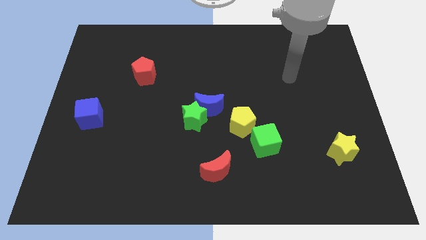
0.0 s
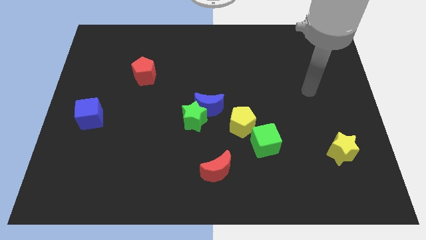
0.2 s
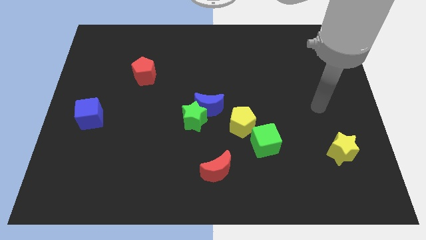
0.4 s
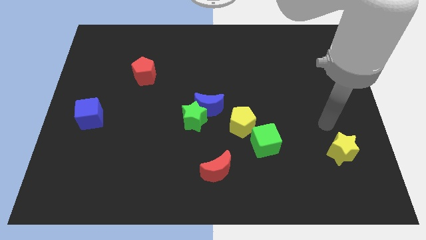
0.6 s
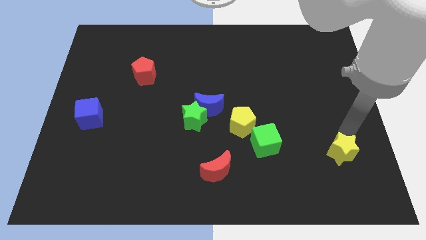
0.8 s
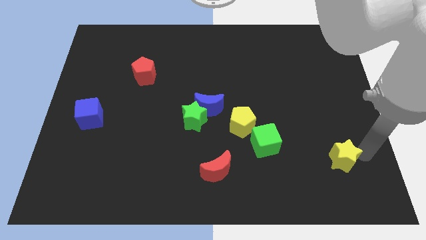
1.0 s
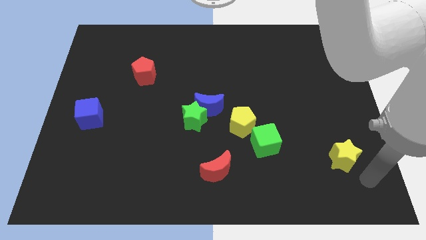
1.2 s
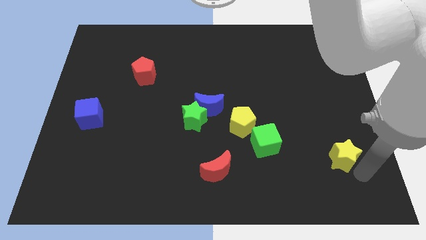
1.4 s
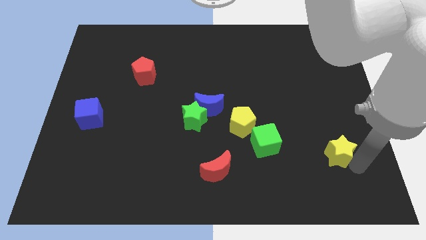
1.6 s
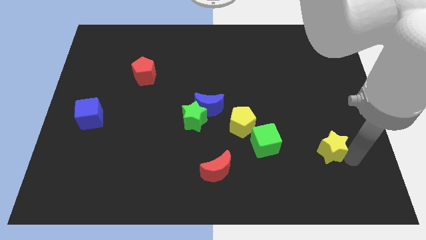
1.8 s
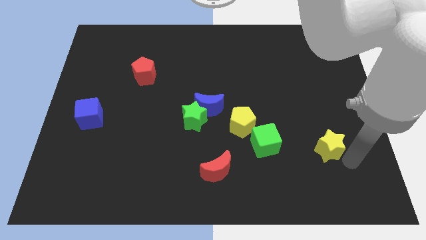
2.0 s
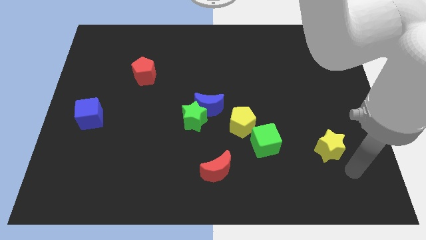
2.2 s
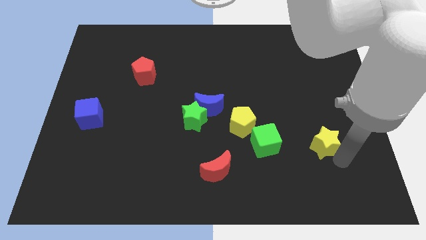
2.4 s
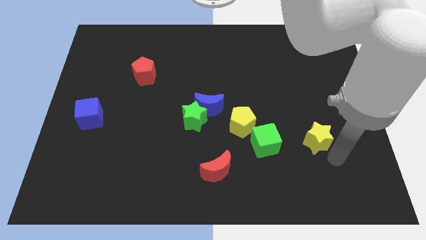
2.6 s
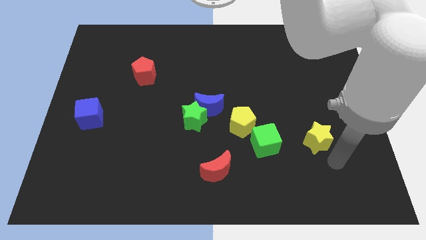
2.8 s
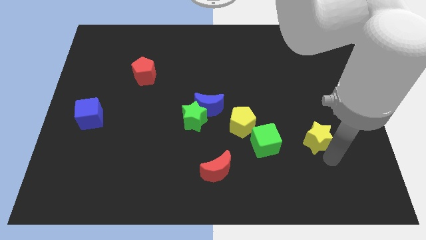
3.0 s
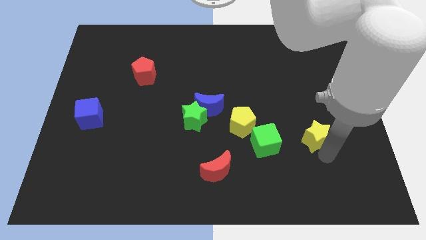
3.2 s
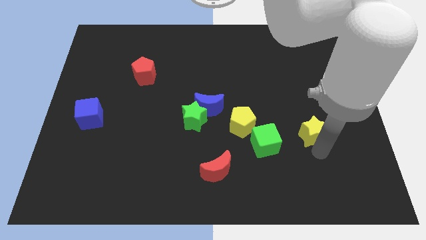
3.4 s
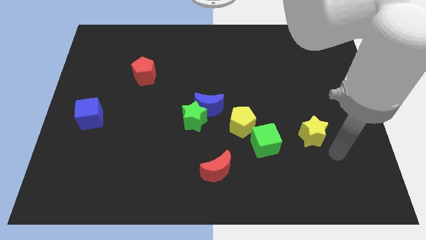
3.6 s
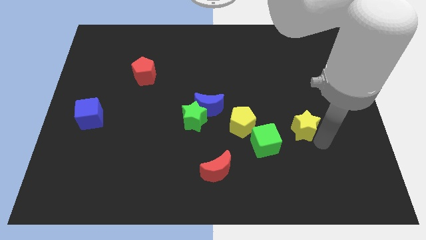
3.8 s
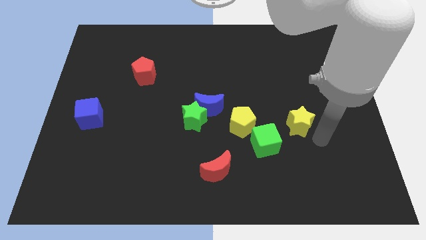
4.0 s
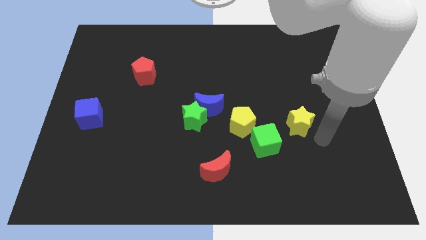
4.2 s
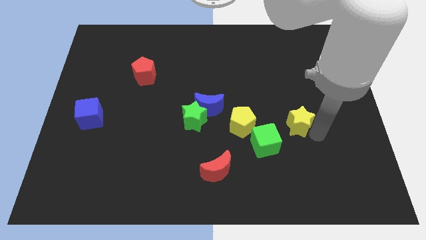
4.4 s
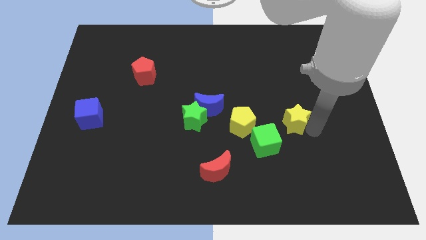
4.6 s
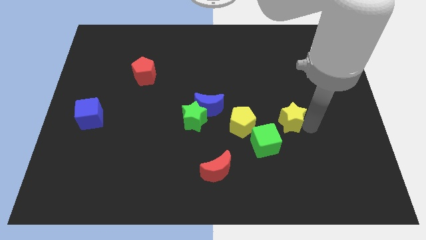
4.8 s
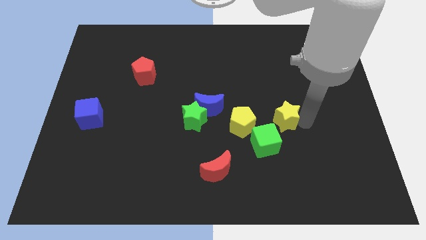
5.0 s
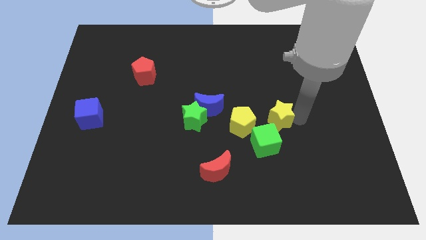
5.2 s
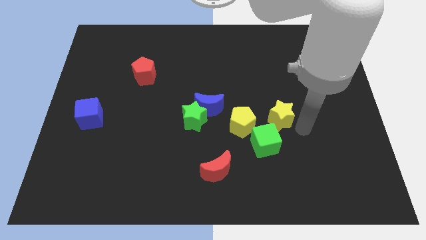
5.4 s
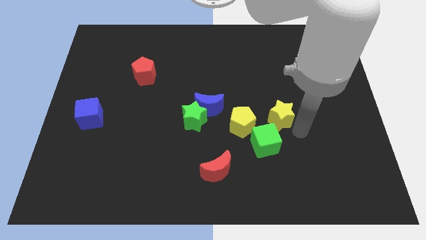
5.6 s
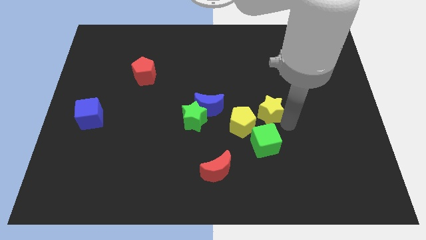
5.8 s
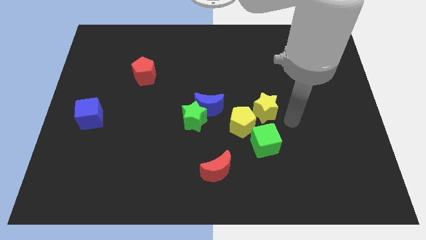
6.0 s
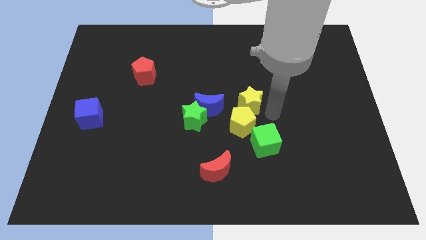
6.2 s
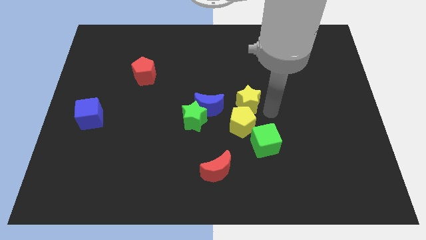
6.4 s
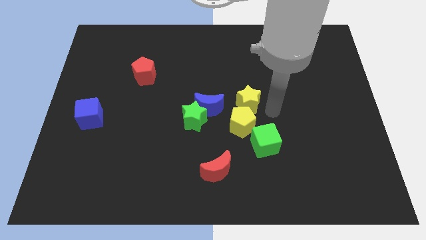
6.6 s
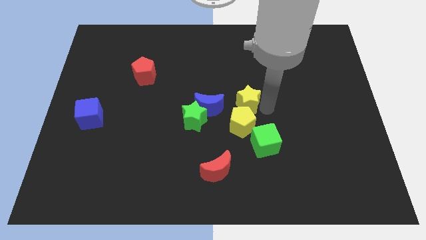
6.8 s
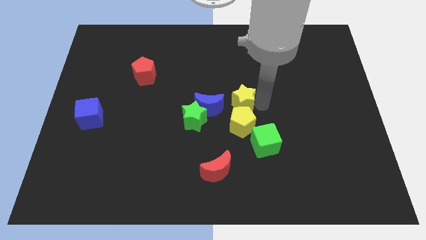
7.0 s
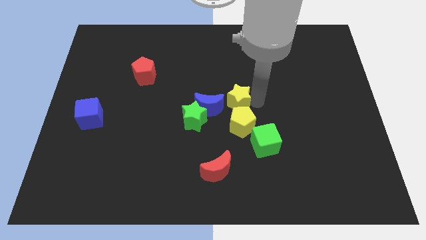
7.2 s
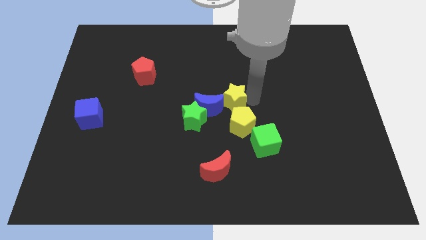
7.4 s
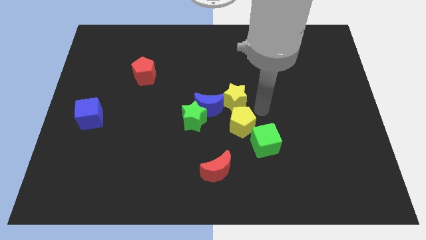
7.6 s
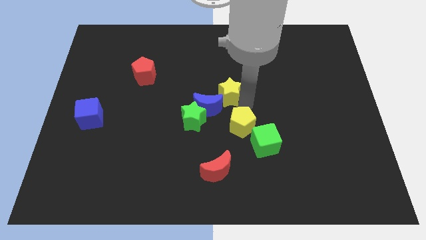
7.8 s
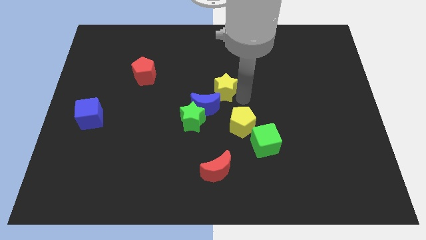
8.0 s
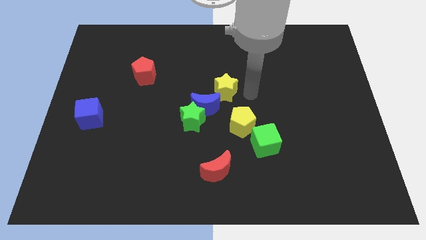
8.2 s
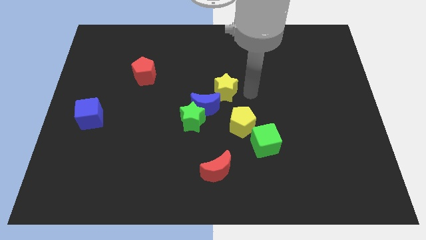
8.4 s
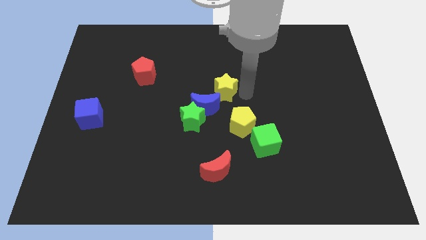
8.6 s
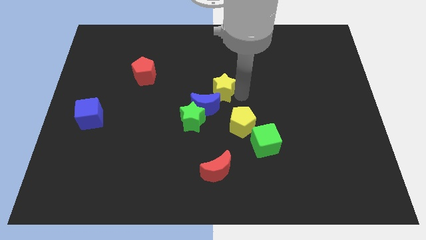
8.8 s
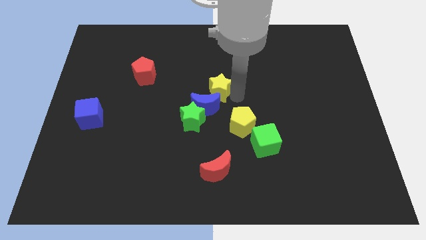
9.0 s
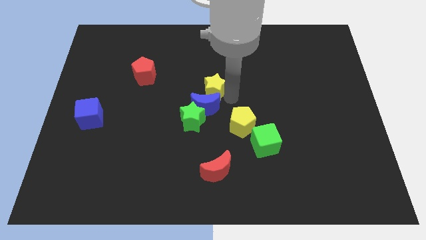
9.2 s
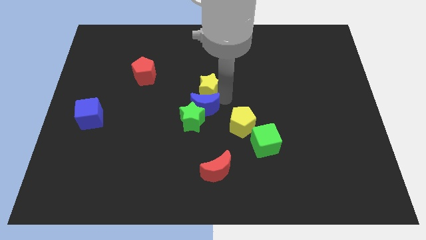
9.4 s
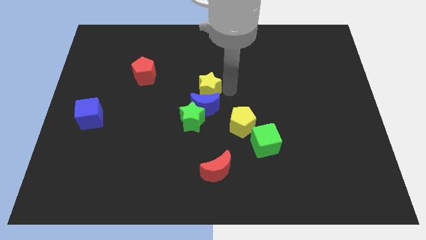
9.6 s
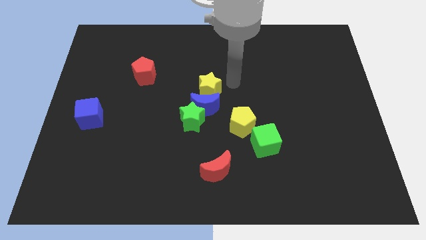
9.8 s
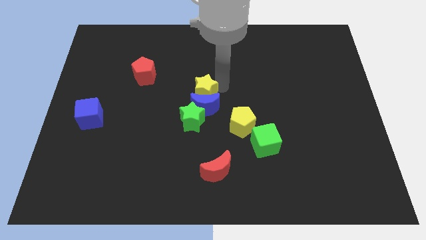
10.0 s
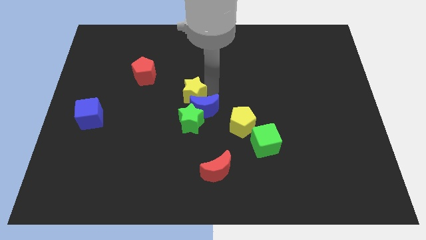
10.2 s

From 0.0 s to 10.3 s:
move the yellow star just left of the blue moon

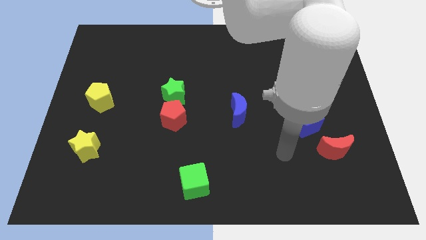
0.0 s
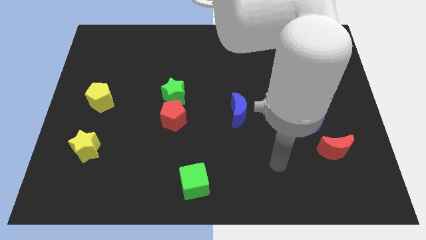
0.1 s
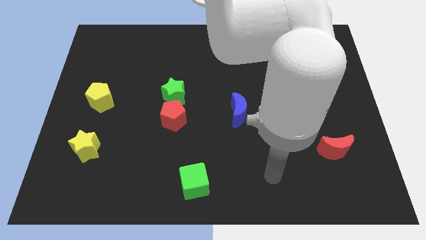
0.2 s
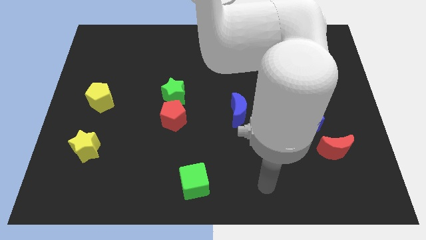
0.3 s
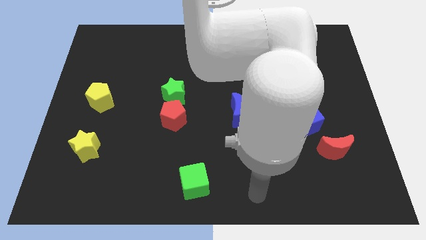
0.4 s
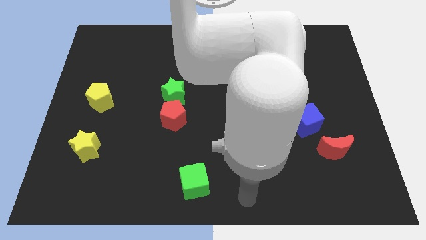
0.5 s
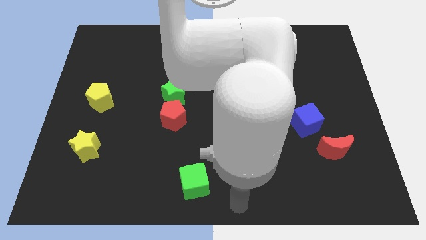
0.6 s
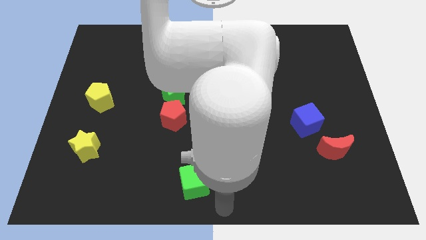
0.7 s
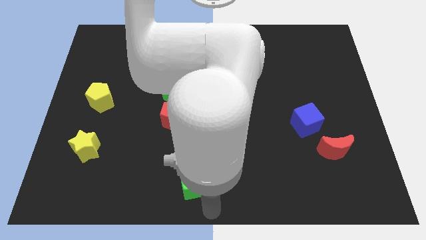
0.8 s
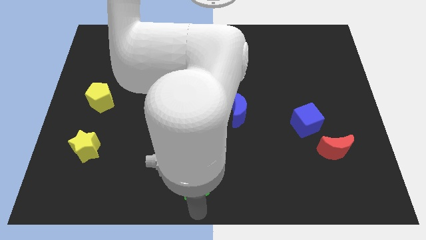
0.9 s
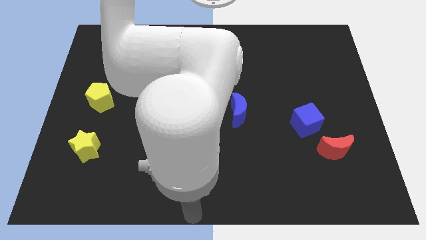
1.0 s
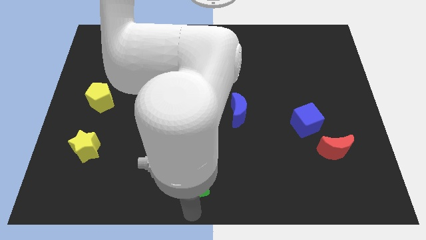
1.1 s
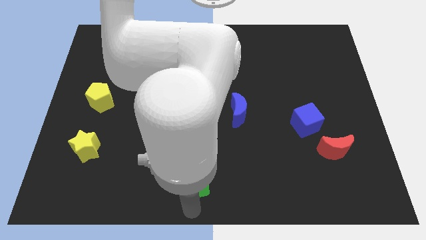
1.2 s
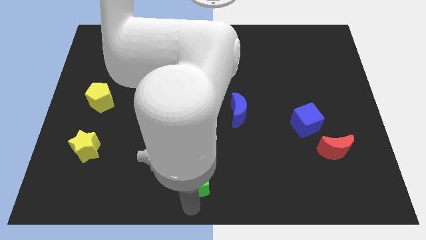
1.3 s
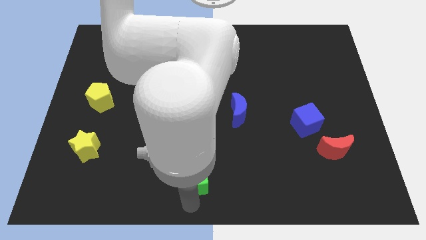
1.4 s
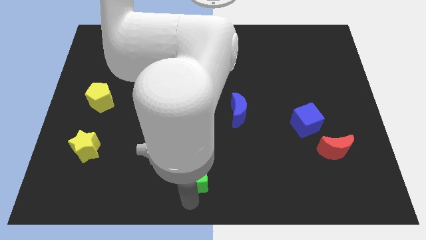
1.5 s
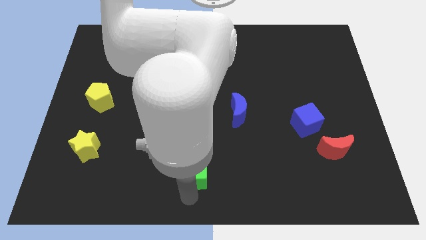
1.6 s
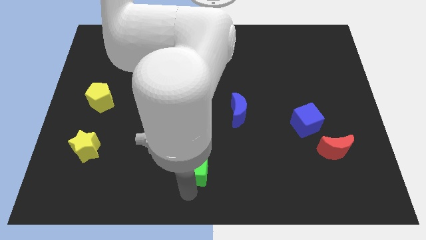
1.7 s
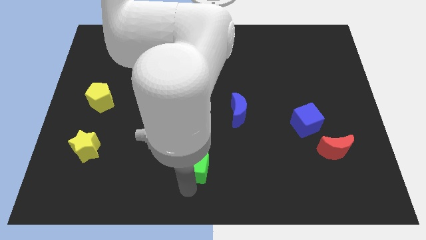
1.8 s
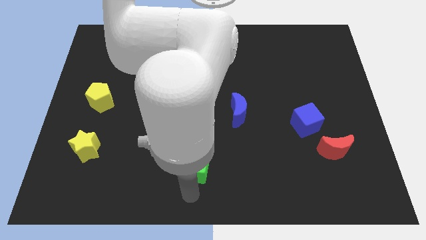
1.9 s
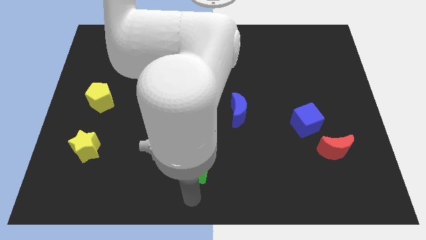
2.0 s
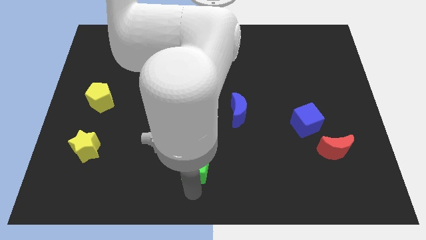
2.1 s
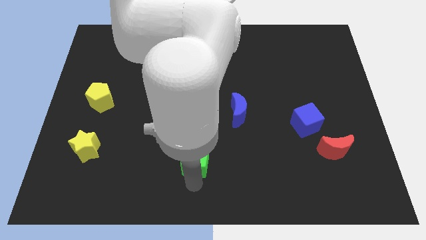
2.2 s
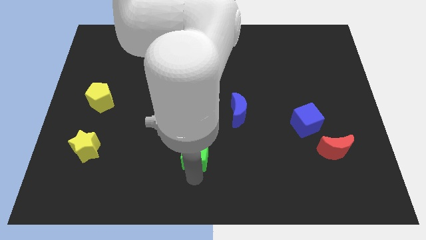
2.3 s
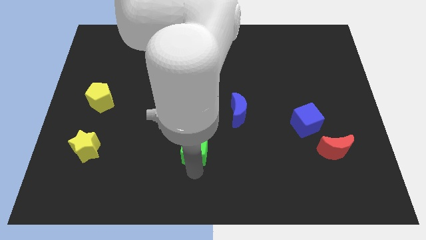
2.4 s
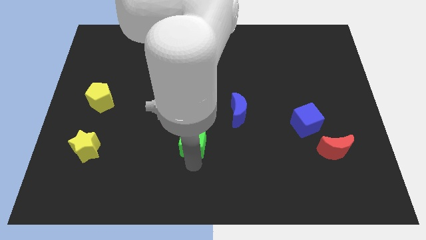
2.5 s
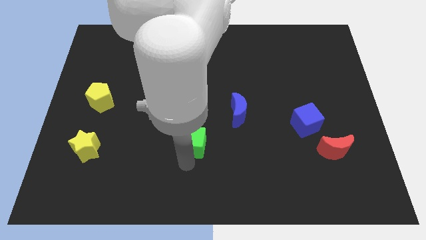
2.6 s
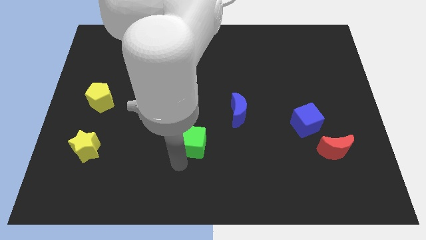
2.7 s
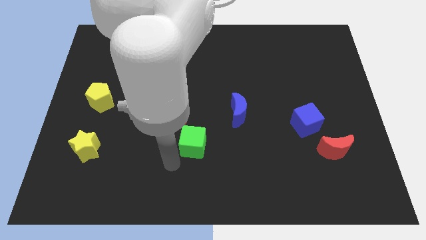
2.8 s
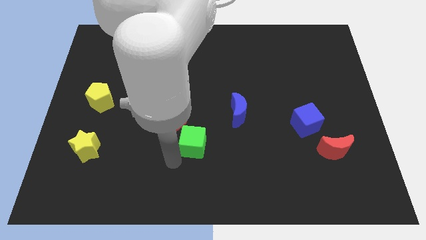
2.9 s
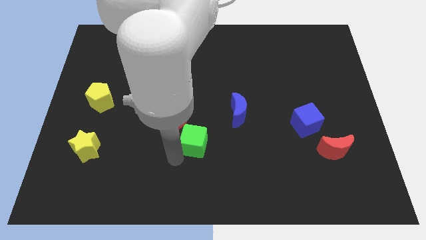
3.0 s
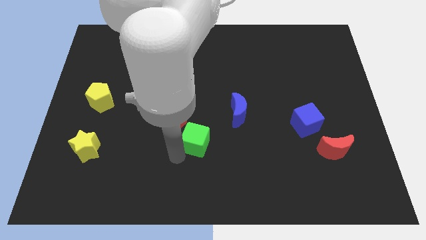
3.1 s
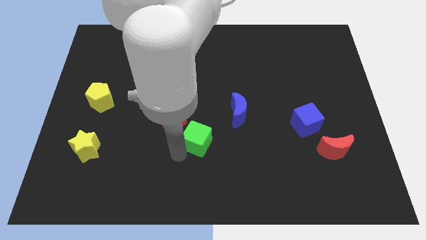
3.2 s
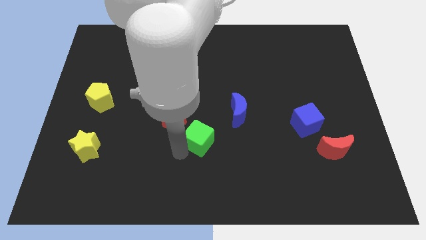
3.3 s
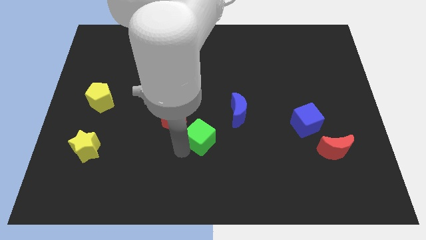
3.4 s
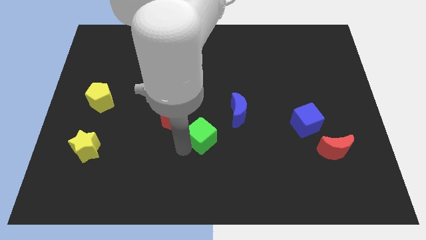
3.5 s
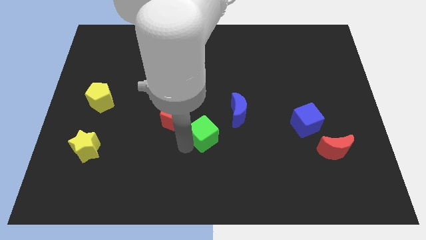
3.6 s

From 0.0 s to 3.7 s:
push the green cube to the right of the red pentagon
